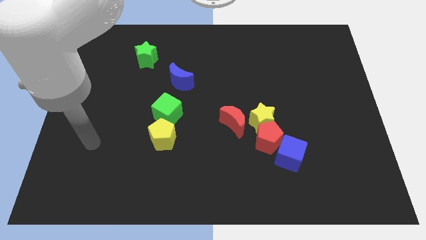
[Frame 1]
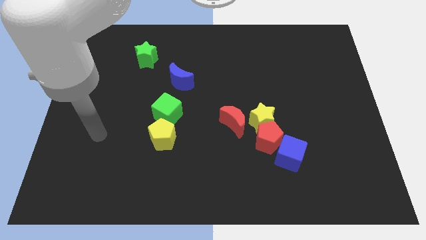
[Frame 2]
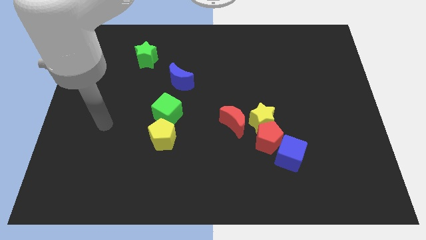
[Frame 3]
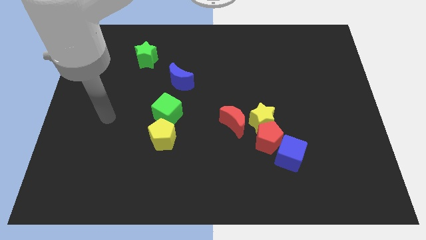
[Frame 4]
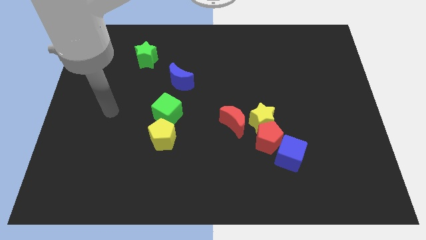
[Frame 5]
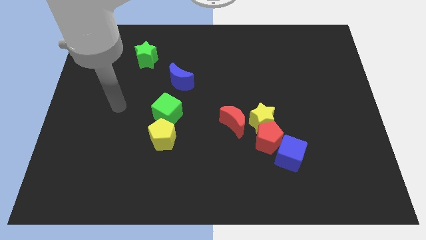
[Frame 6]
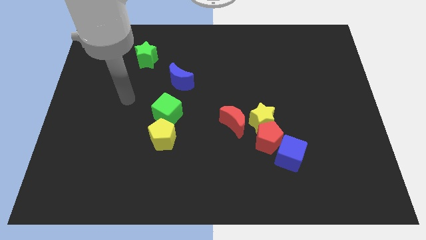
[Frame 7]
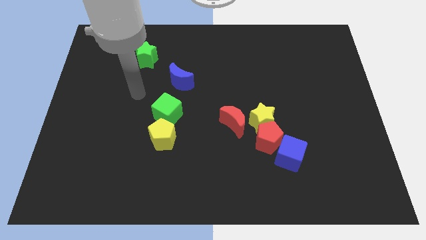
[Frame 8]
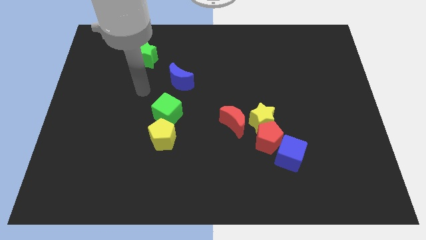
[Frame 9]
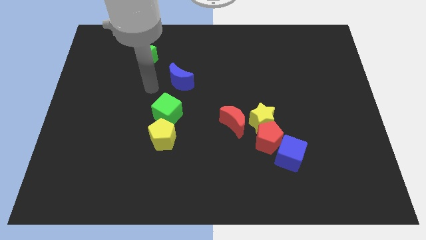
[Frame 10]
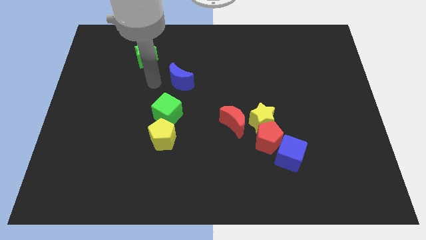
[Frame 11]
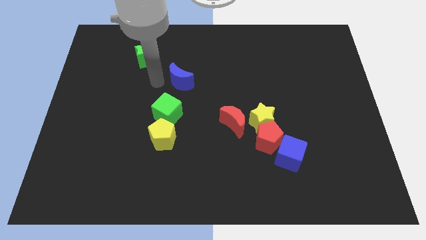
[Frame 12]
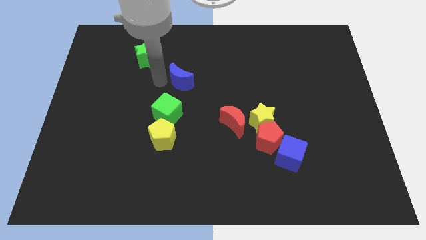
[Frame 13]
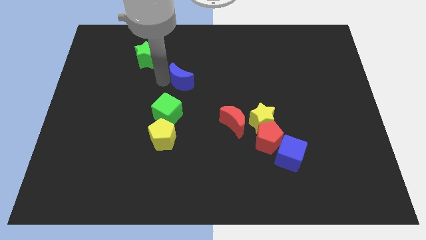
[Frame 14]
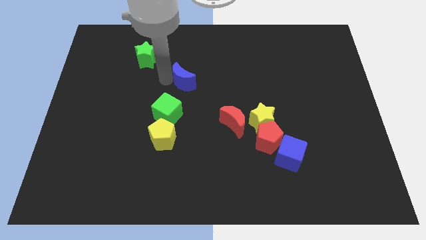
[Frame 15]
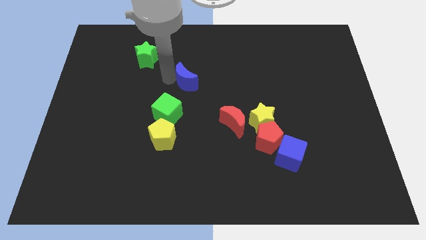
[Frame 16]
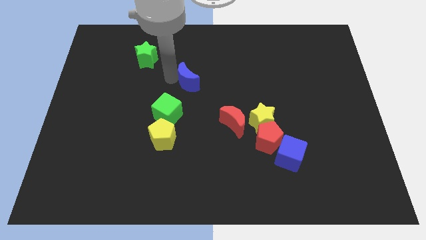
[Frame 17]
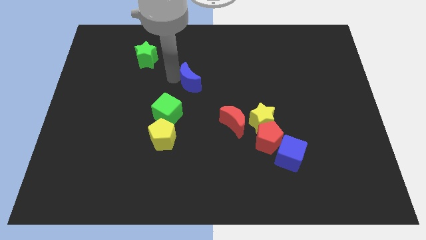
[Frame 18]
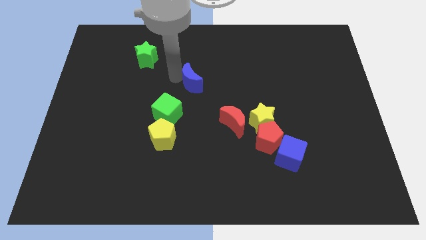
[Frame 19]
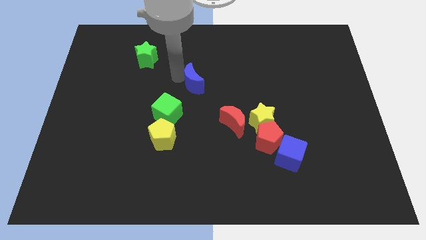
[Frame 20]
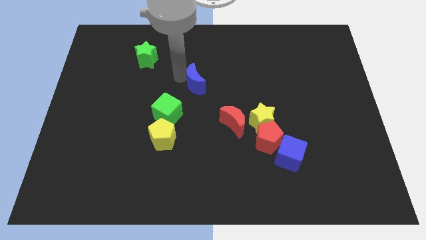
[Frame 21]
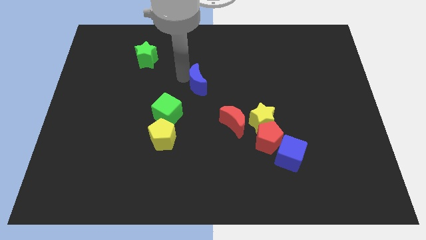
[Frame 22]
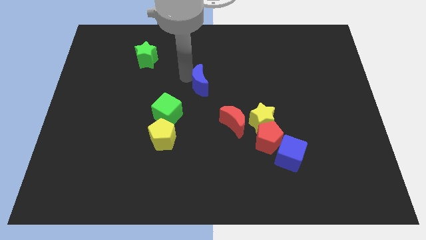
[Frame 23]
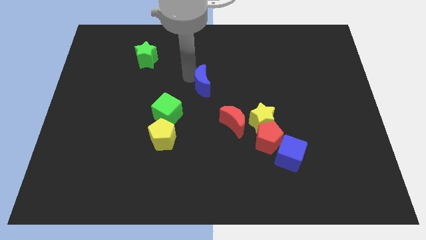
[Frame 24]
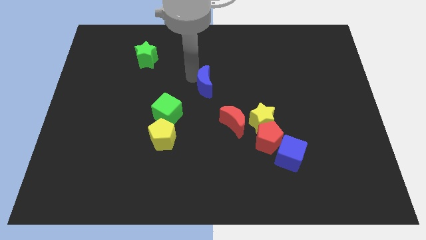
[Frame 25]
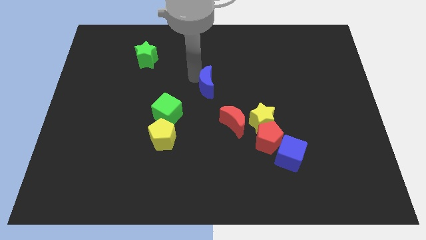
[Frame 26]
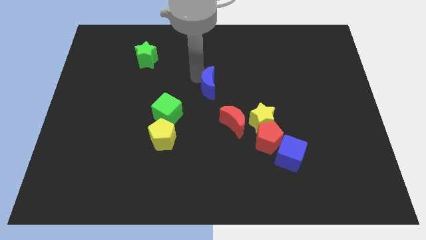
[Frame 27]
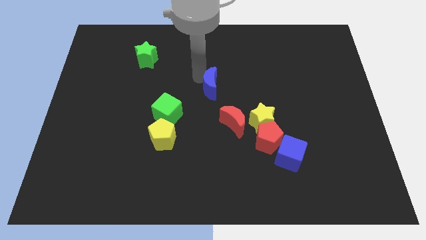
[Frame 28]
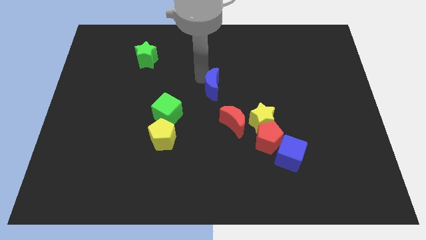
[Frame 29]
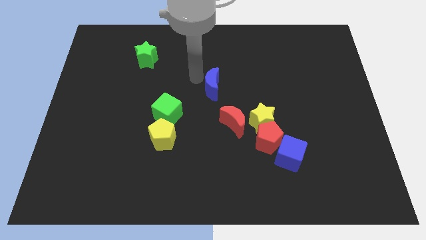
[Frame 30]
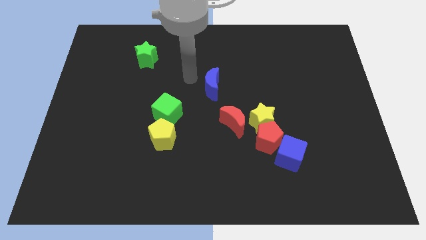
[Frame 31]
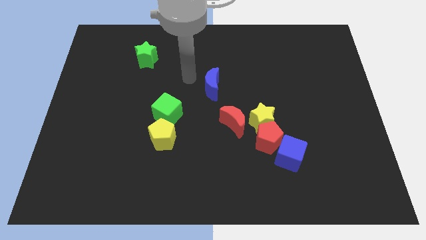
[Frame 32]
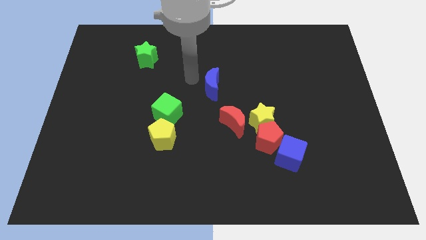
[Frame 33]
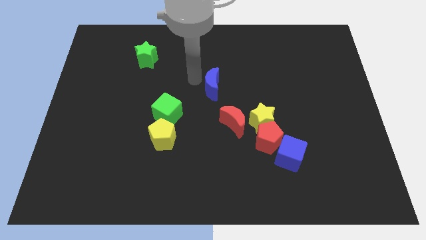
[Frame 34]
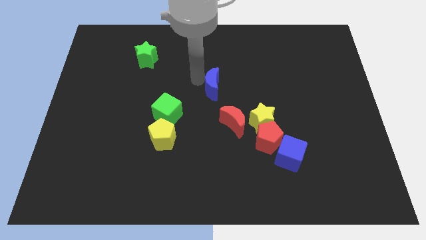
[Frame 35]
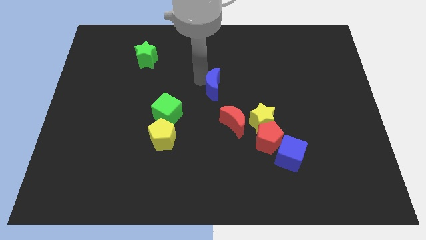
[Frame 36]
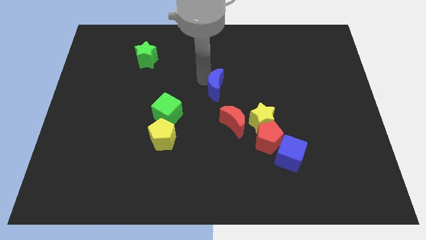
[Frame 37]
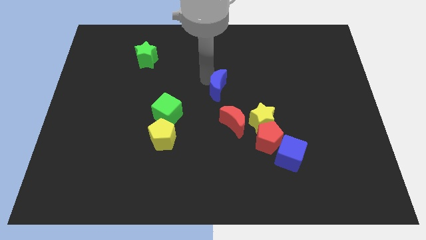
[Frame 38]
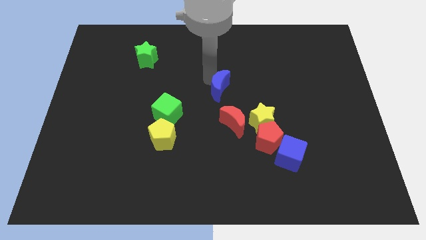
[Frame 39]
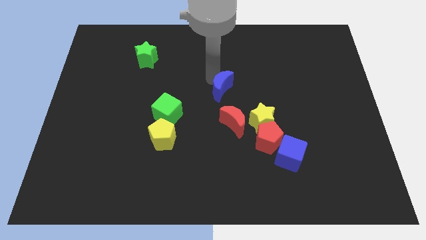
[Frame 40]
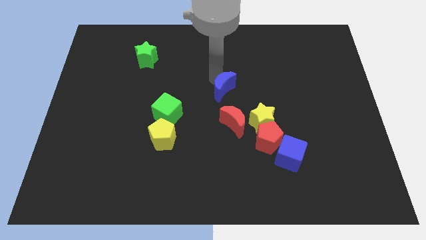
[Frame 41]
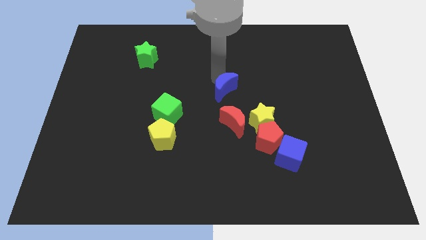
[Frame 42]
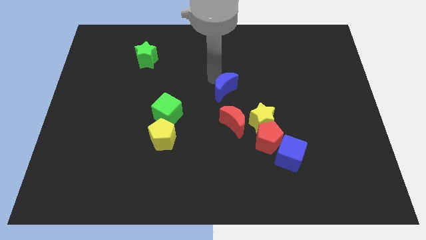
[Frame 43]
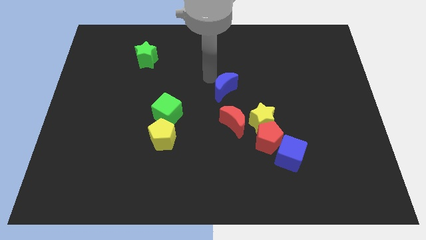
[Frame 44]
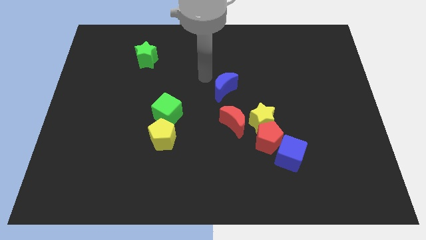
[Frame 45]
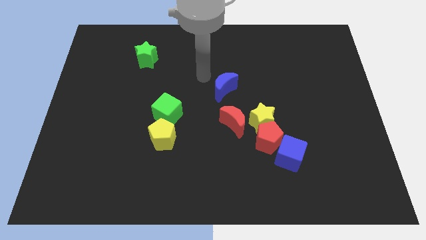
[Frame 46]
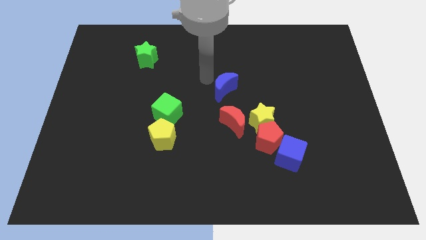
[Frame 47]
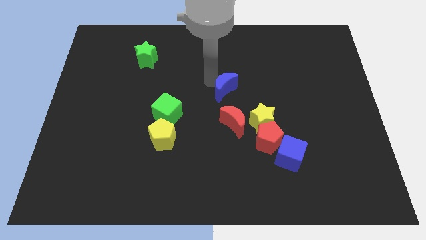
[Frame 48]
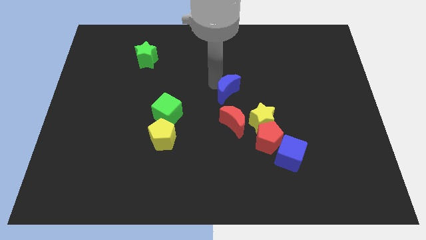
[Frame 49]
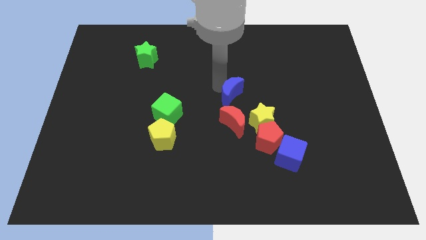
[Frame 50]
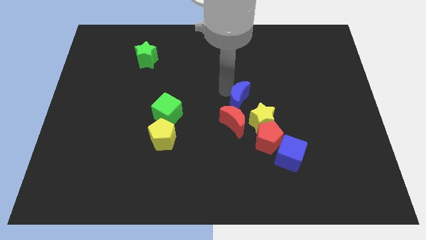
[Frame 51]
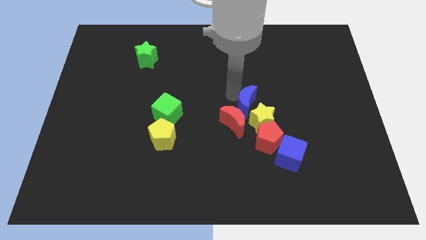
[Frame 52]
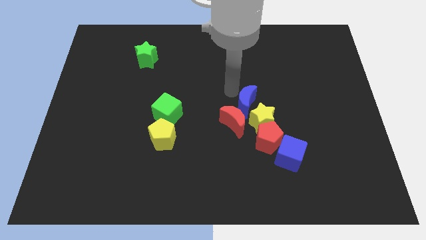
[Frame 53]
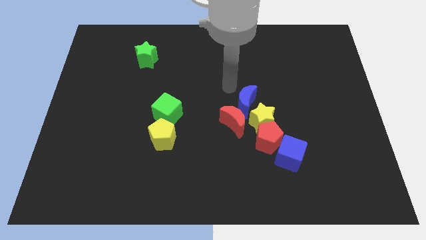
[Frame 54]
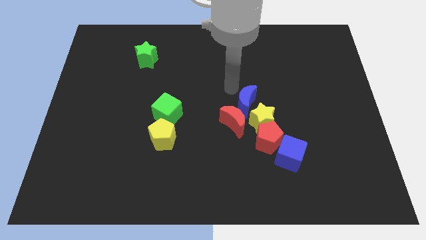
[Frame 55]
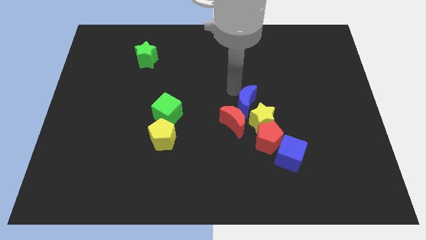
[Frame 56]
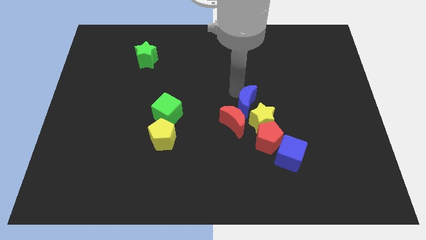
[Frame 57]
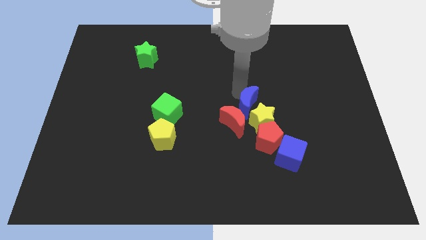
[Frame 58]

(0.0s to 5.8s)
push the blue moon to the yellow star
